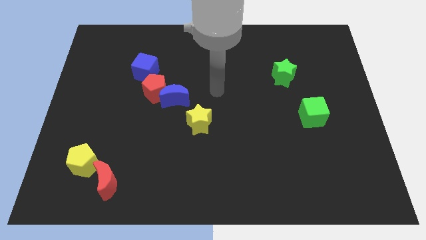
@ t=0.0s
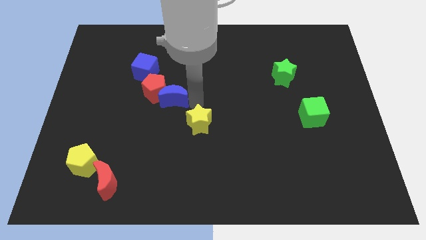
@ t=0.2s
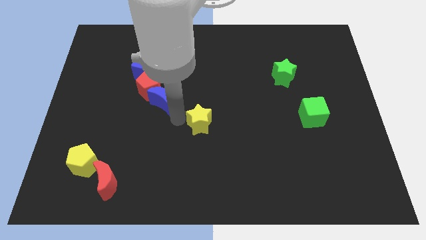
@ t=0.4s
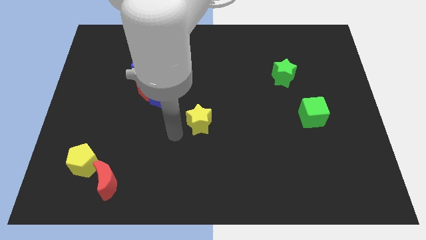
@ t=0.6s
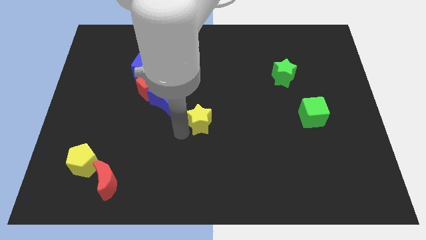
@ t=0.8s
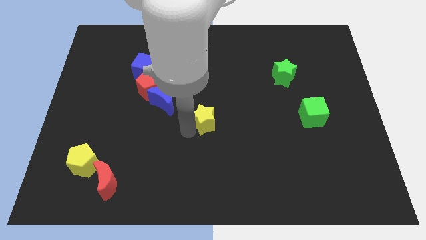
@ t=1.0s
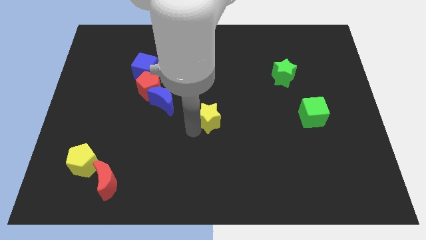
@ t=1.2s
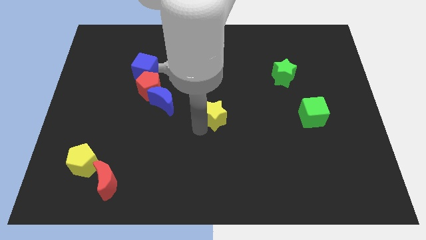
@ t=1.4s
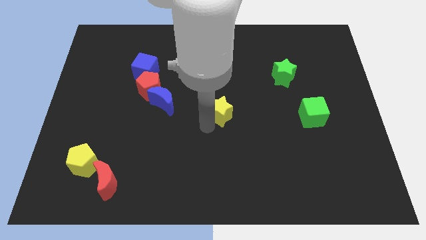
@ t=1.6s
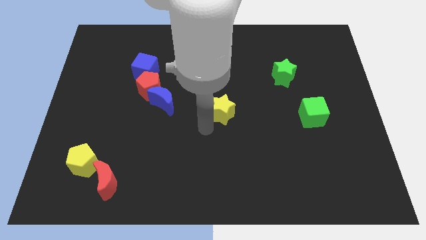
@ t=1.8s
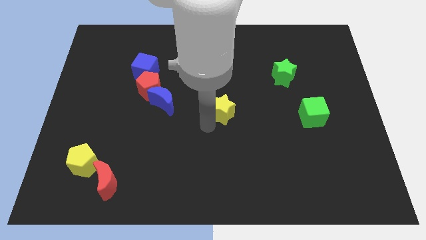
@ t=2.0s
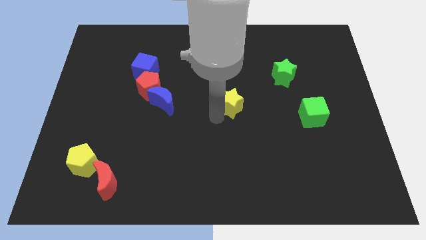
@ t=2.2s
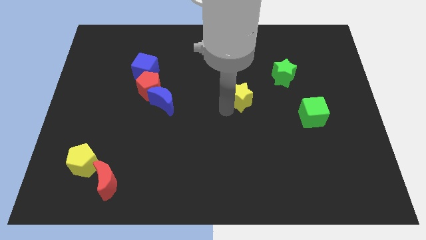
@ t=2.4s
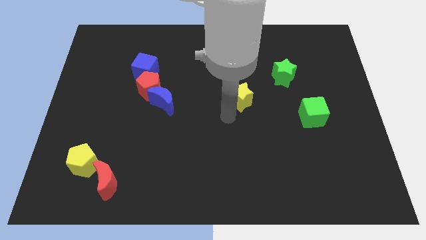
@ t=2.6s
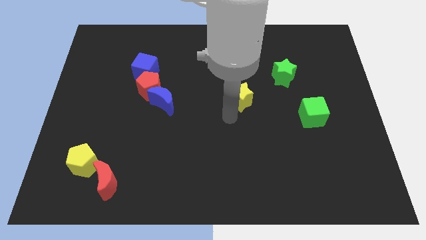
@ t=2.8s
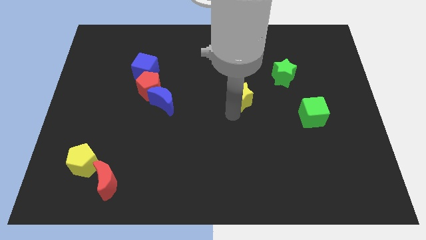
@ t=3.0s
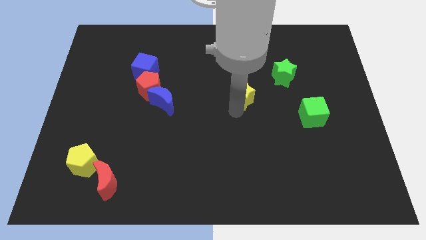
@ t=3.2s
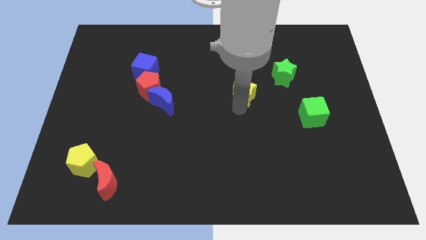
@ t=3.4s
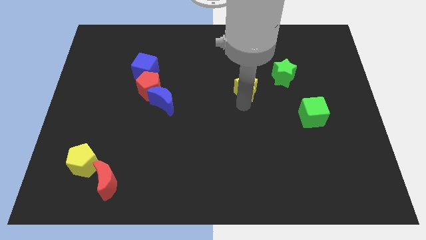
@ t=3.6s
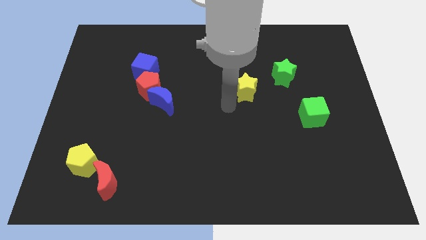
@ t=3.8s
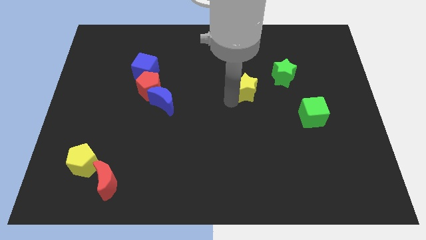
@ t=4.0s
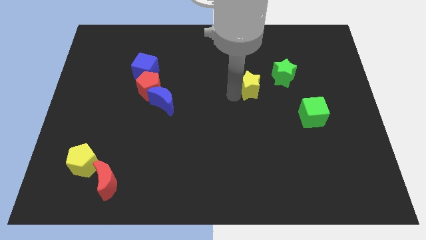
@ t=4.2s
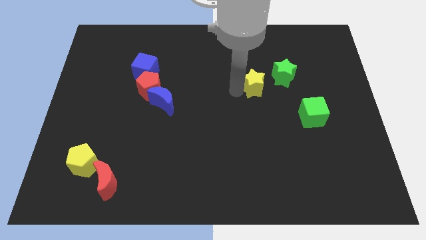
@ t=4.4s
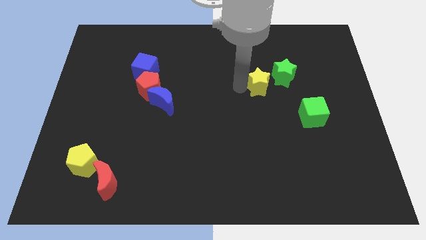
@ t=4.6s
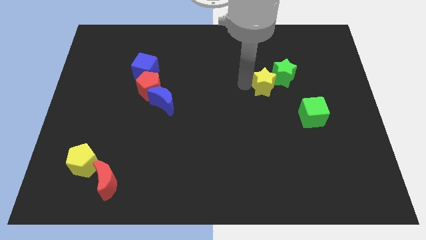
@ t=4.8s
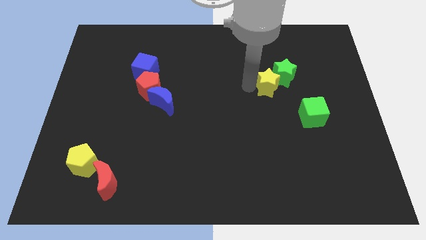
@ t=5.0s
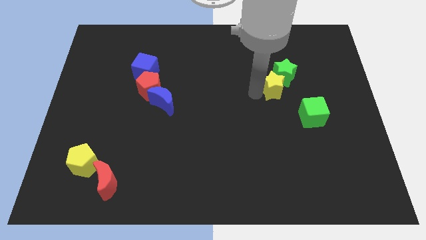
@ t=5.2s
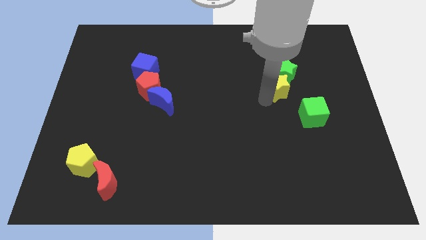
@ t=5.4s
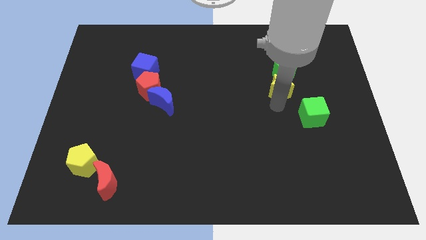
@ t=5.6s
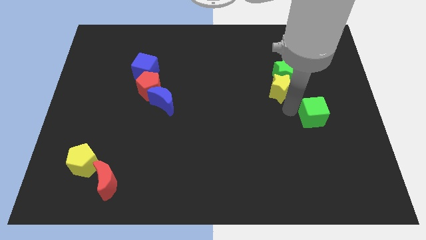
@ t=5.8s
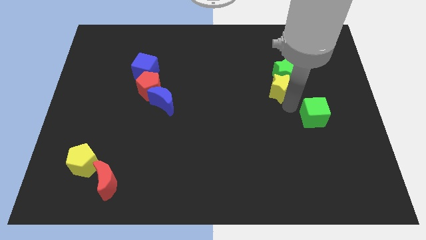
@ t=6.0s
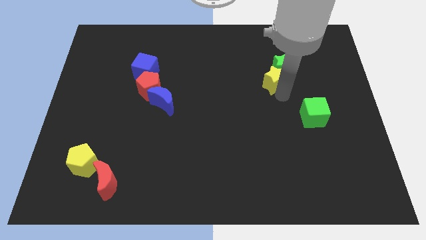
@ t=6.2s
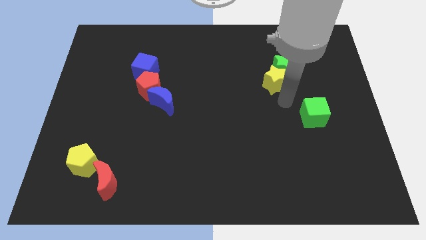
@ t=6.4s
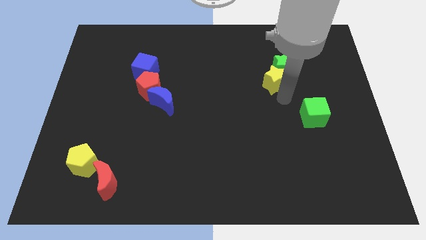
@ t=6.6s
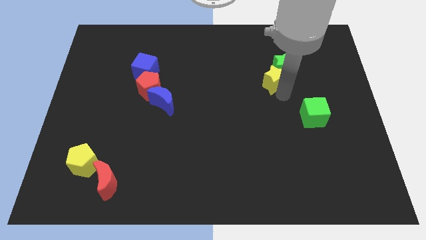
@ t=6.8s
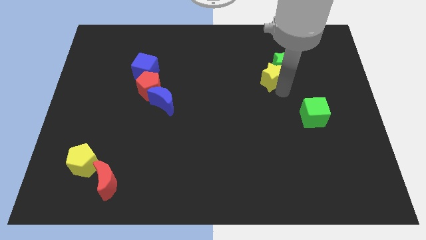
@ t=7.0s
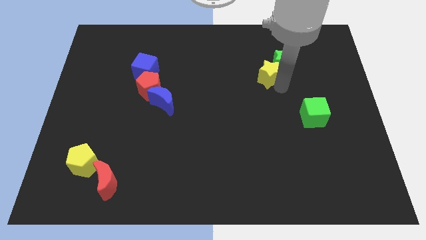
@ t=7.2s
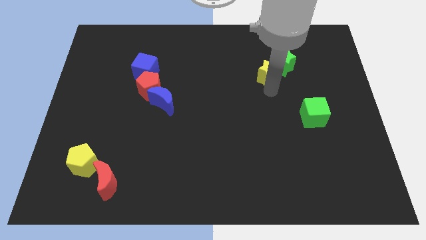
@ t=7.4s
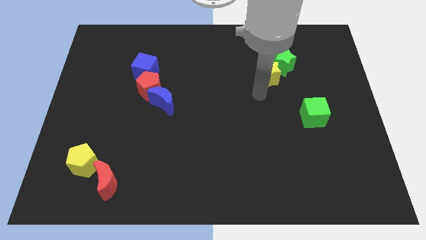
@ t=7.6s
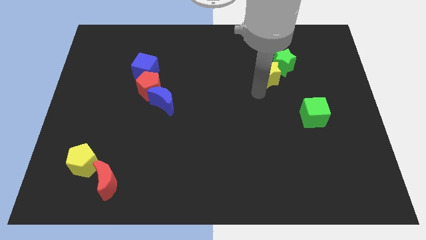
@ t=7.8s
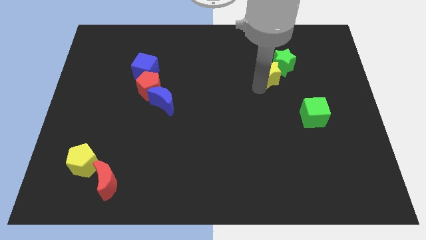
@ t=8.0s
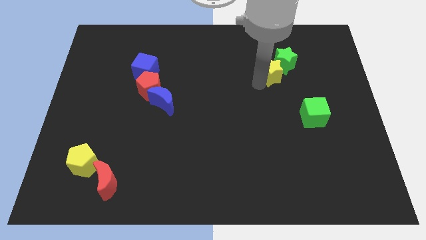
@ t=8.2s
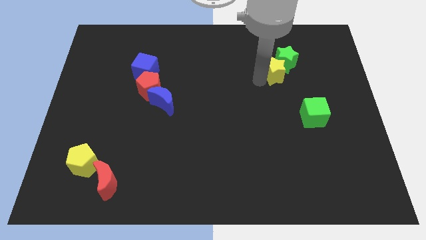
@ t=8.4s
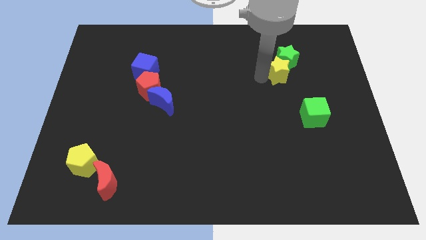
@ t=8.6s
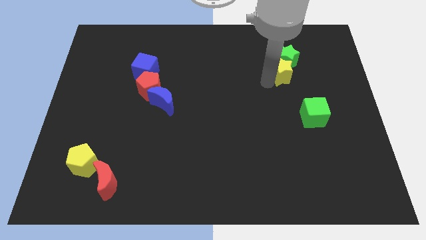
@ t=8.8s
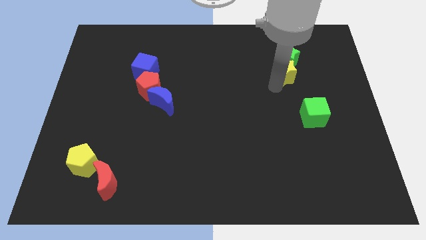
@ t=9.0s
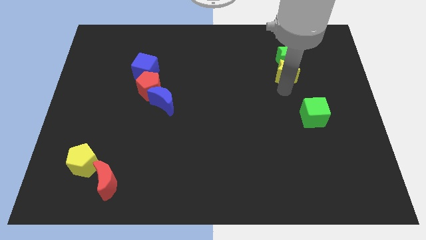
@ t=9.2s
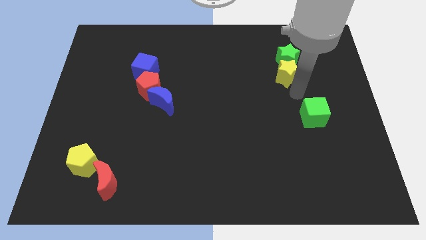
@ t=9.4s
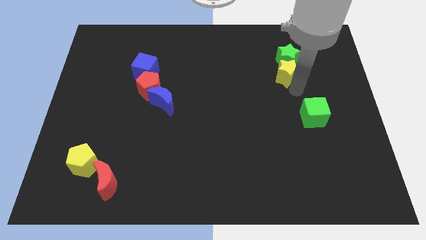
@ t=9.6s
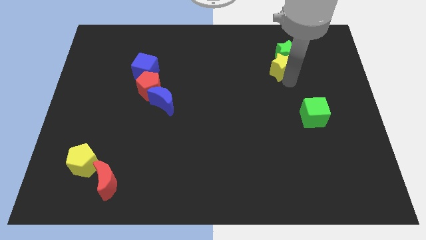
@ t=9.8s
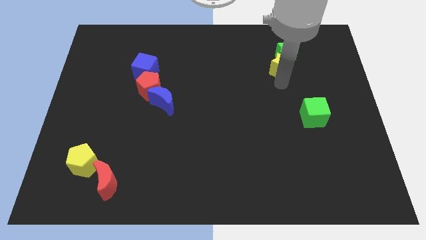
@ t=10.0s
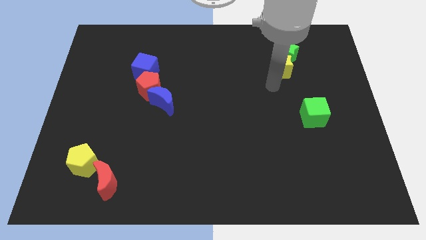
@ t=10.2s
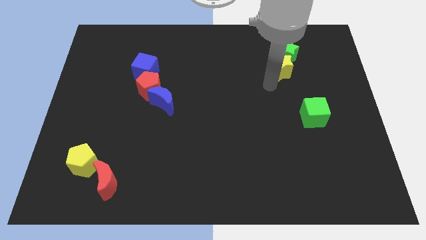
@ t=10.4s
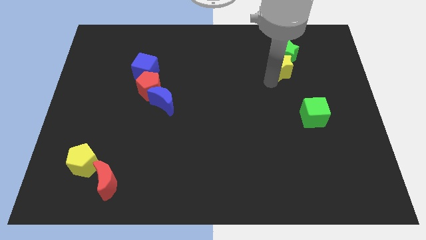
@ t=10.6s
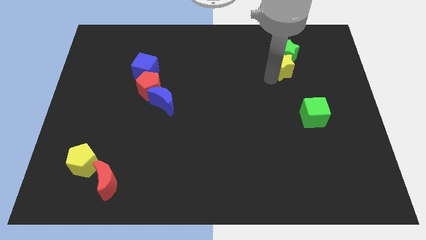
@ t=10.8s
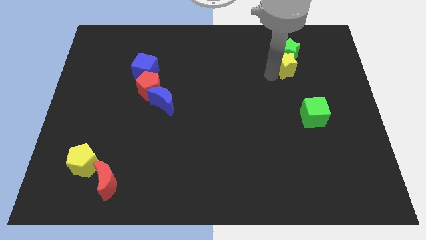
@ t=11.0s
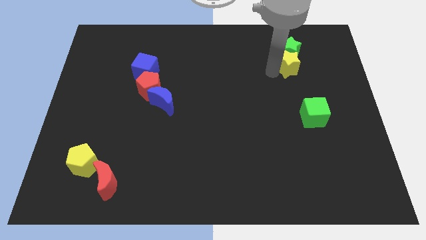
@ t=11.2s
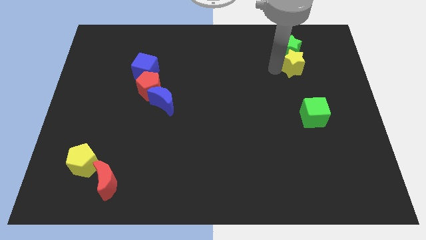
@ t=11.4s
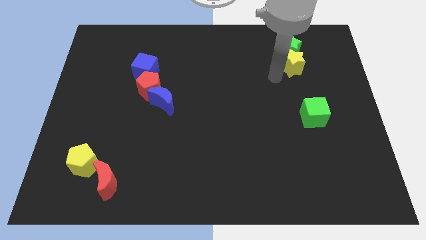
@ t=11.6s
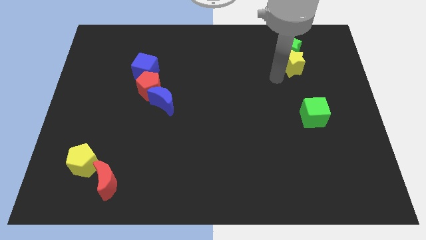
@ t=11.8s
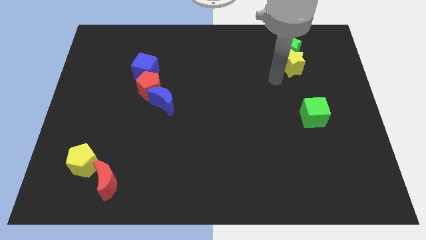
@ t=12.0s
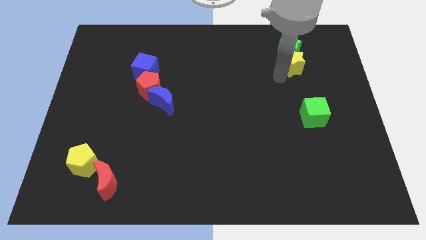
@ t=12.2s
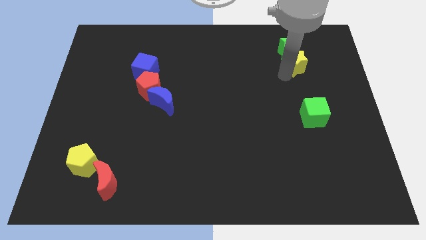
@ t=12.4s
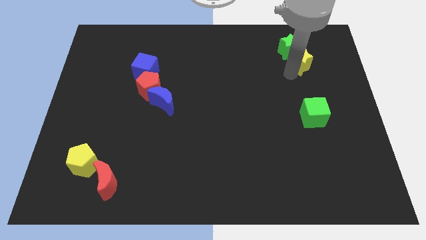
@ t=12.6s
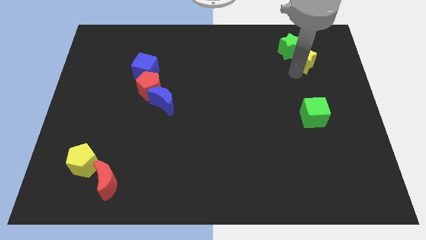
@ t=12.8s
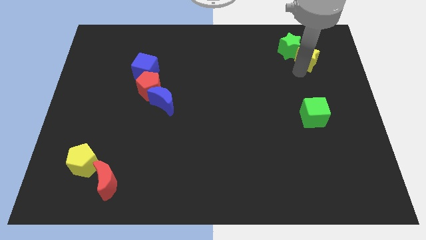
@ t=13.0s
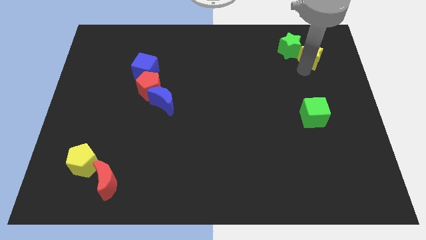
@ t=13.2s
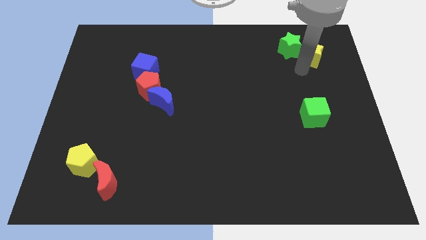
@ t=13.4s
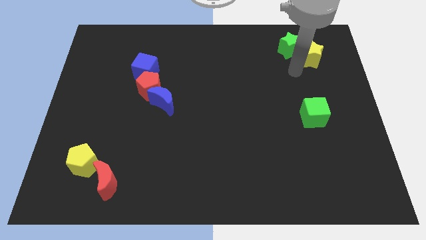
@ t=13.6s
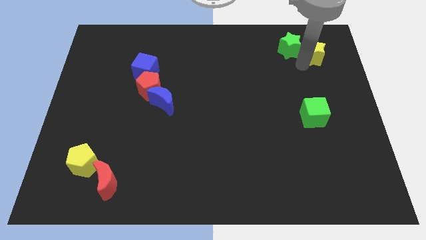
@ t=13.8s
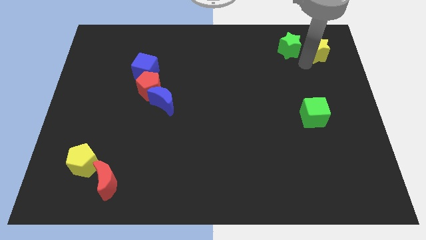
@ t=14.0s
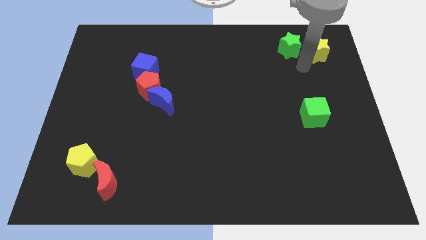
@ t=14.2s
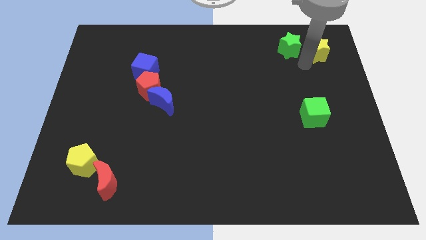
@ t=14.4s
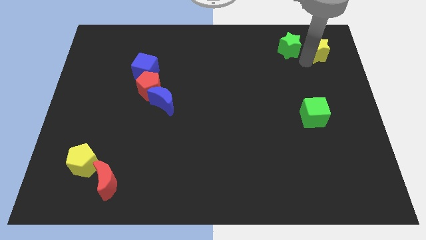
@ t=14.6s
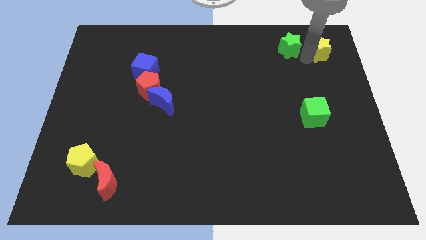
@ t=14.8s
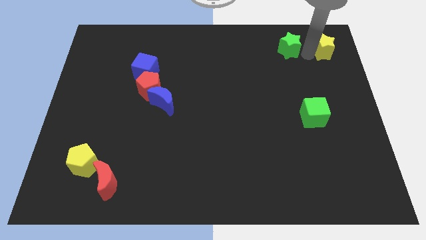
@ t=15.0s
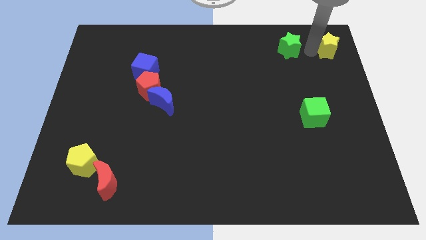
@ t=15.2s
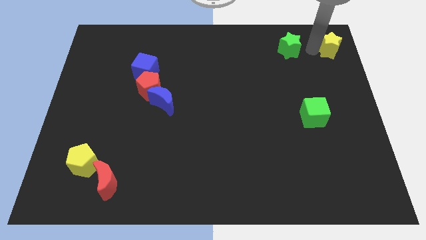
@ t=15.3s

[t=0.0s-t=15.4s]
push the yellow star to the top right corner
